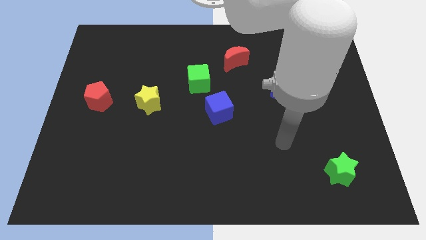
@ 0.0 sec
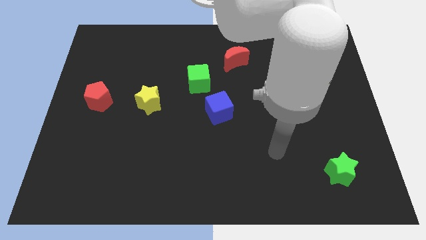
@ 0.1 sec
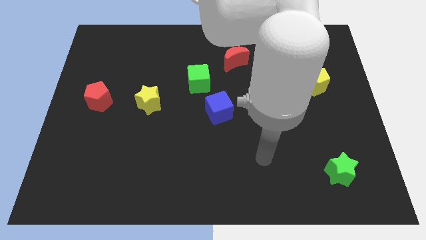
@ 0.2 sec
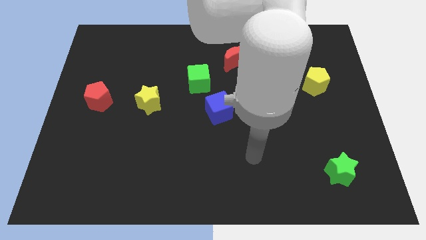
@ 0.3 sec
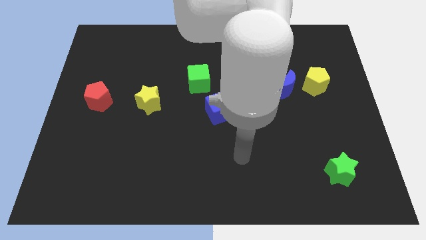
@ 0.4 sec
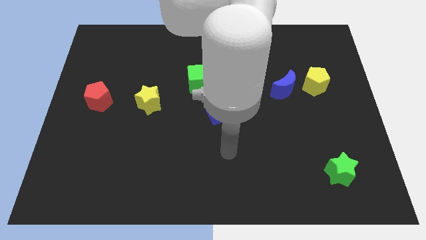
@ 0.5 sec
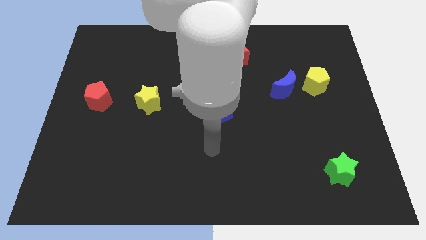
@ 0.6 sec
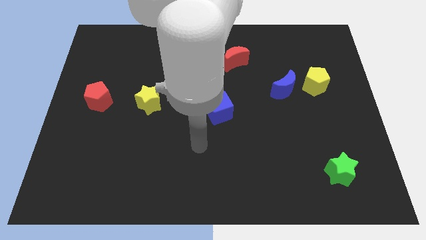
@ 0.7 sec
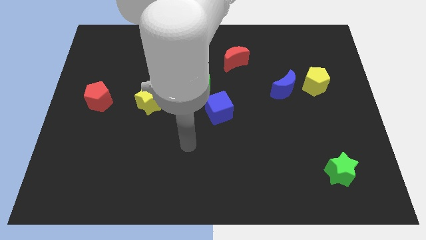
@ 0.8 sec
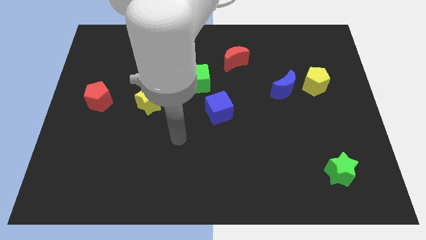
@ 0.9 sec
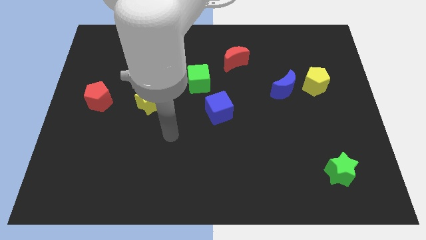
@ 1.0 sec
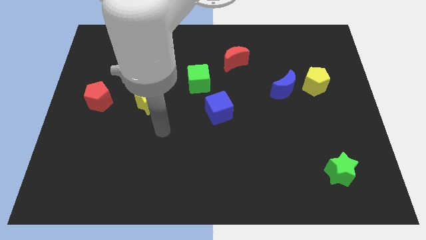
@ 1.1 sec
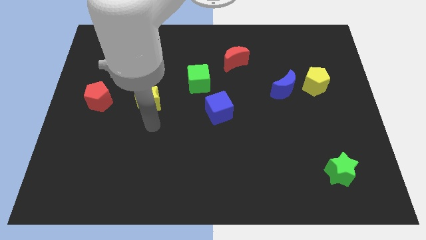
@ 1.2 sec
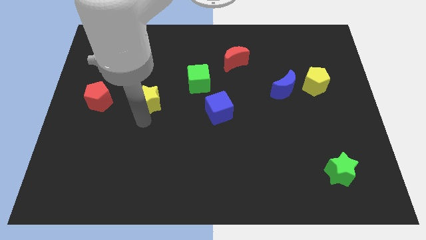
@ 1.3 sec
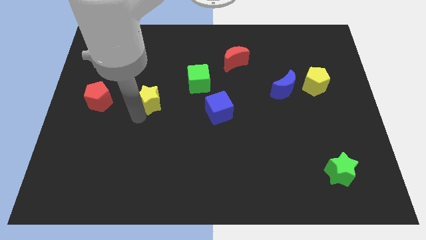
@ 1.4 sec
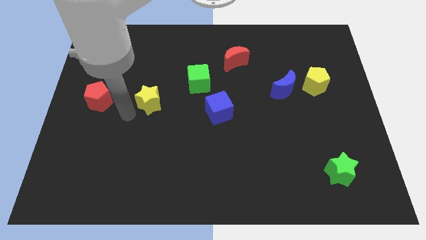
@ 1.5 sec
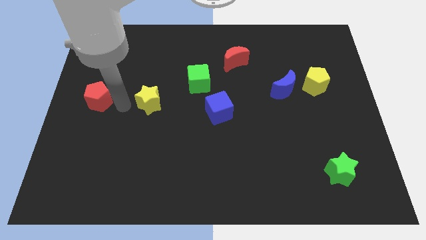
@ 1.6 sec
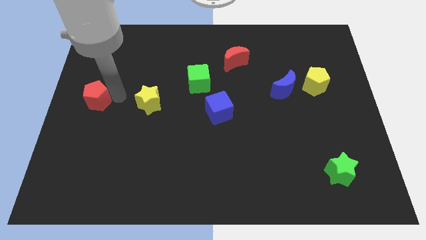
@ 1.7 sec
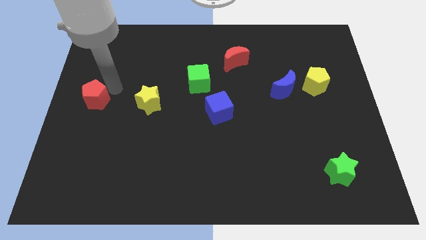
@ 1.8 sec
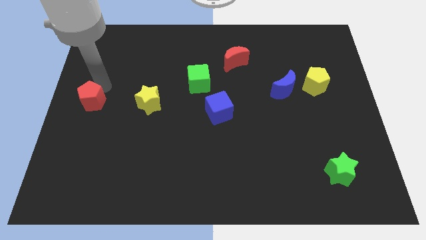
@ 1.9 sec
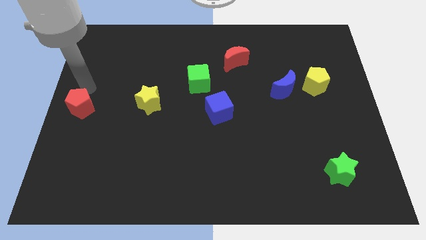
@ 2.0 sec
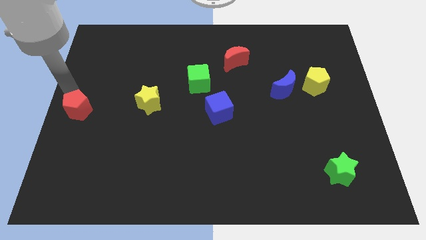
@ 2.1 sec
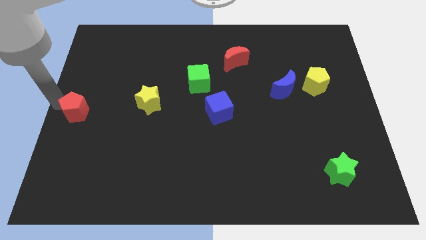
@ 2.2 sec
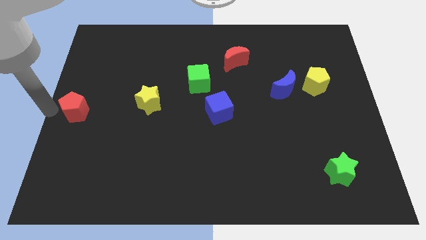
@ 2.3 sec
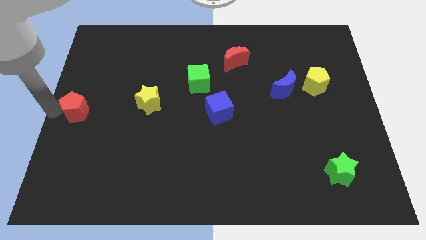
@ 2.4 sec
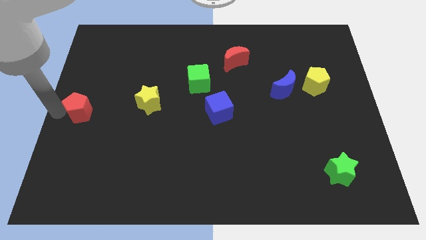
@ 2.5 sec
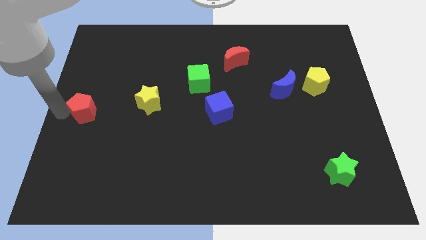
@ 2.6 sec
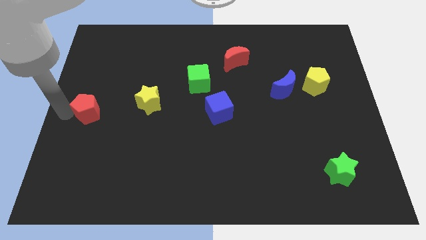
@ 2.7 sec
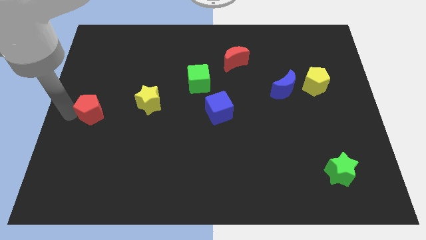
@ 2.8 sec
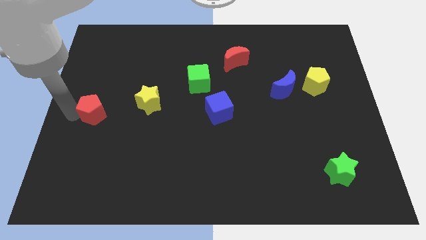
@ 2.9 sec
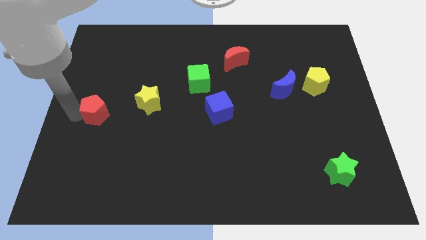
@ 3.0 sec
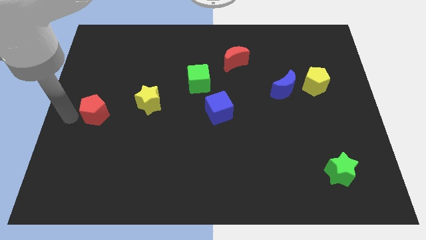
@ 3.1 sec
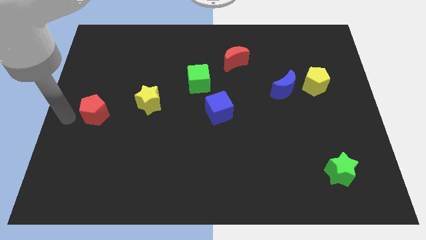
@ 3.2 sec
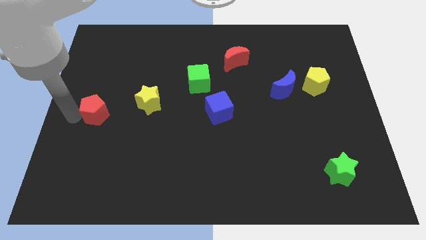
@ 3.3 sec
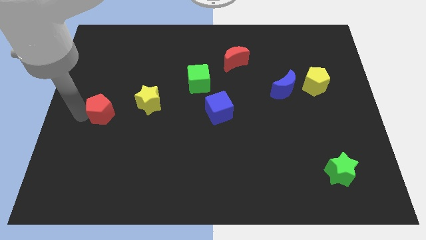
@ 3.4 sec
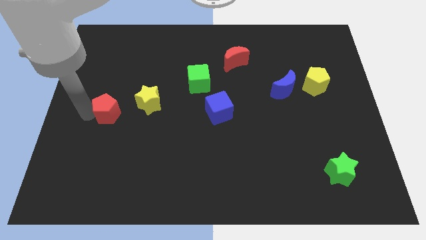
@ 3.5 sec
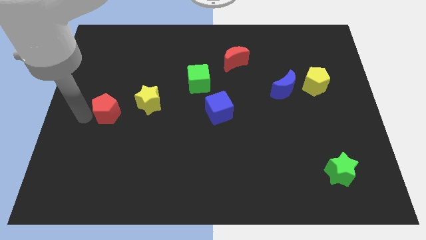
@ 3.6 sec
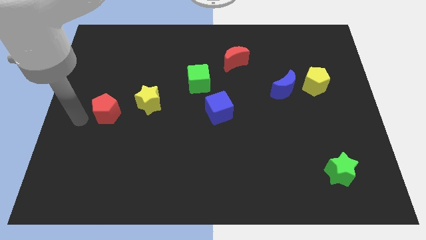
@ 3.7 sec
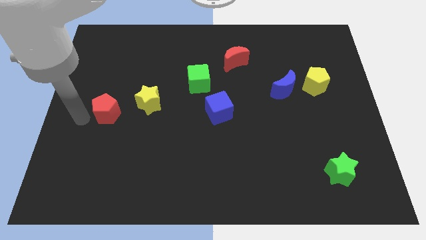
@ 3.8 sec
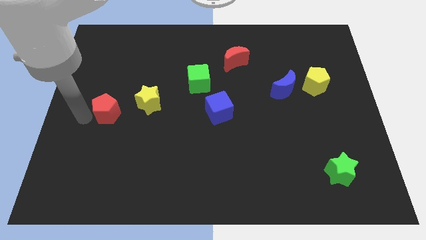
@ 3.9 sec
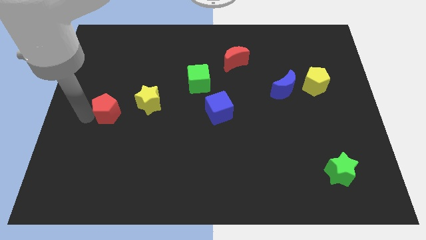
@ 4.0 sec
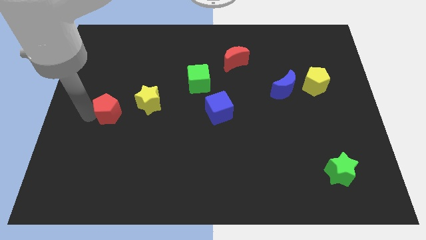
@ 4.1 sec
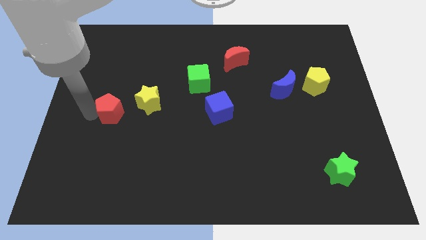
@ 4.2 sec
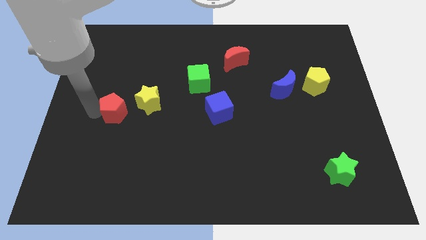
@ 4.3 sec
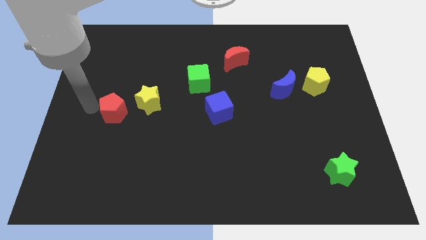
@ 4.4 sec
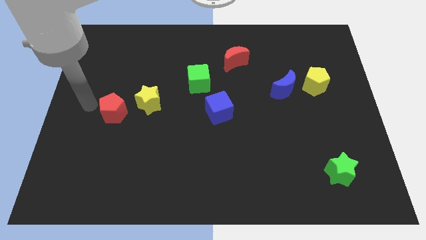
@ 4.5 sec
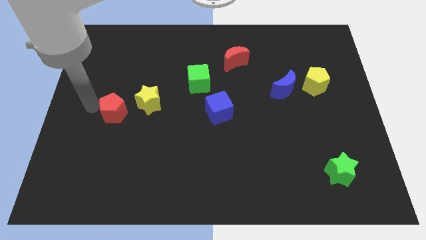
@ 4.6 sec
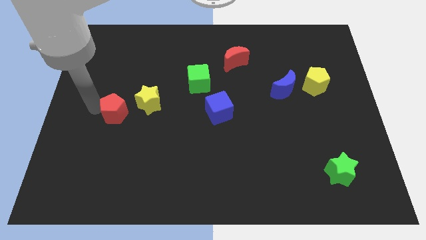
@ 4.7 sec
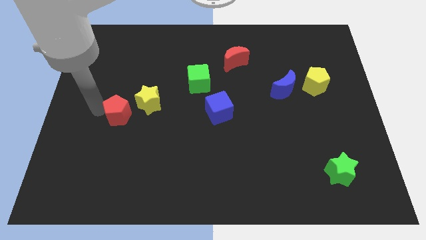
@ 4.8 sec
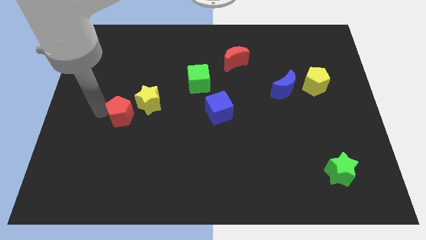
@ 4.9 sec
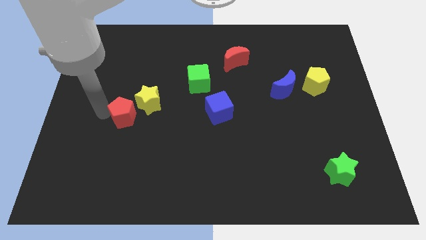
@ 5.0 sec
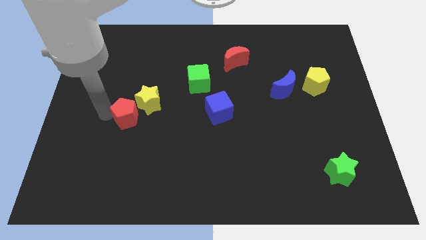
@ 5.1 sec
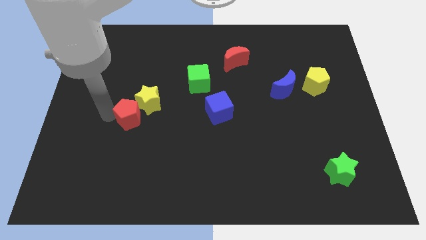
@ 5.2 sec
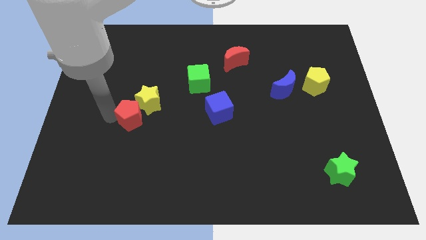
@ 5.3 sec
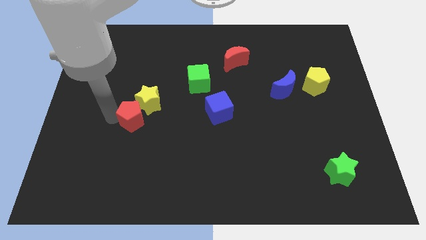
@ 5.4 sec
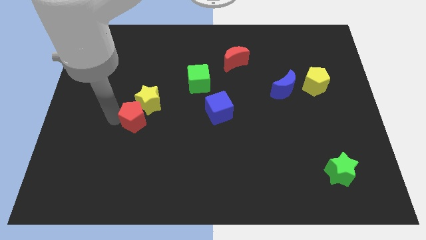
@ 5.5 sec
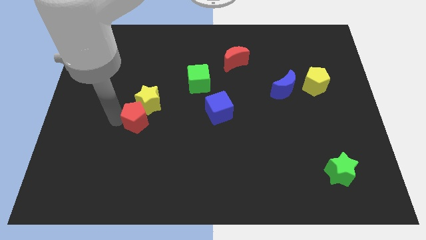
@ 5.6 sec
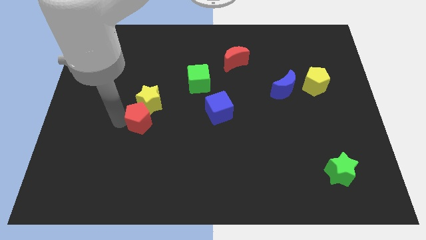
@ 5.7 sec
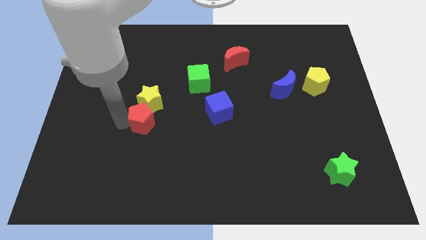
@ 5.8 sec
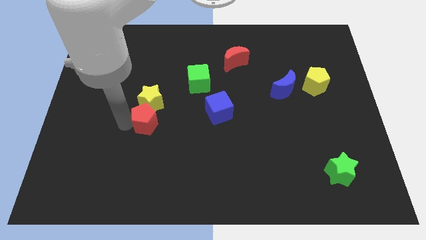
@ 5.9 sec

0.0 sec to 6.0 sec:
move the red pentagon to the bottom right side of the yellow star

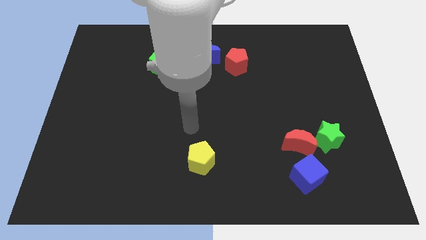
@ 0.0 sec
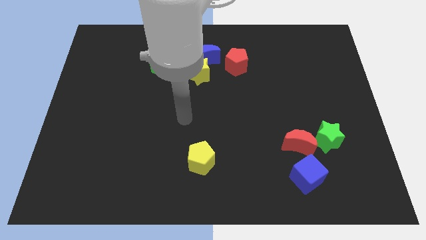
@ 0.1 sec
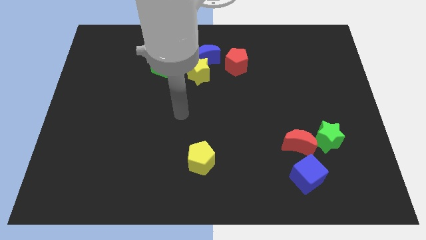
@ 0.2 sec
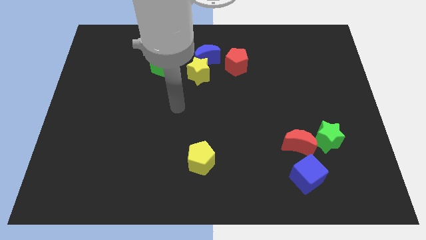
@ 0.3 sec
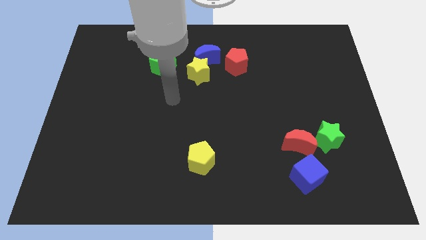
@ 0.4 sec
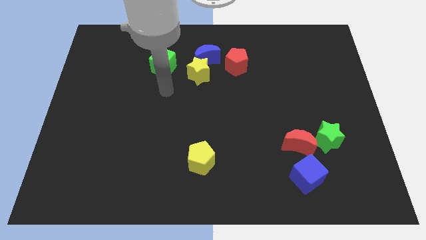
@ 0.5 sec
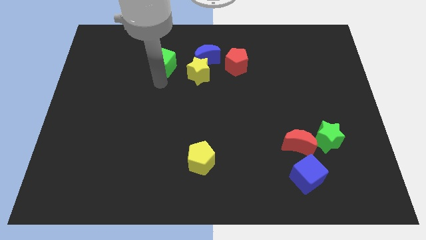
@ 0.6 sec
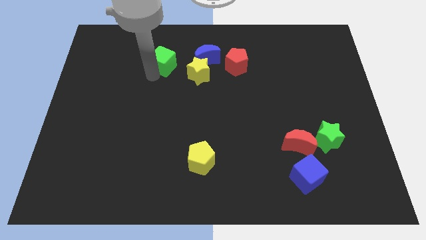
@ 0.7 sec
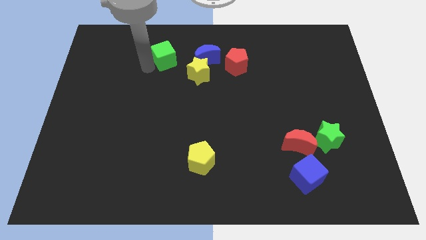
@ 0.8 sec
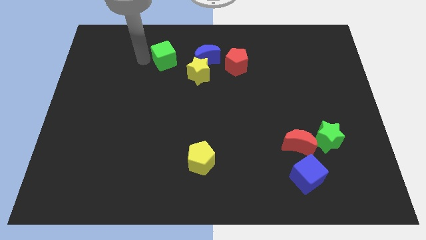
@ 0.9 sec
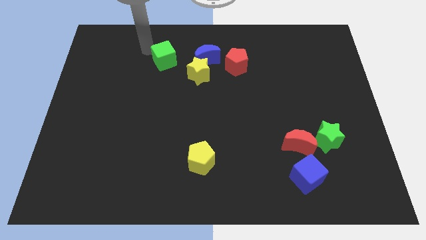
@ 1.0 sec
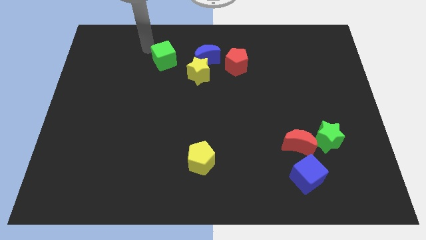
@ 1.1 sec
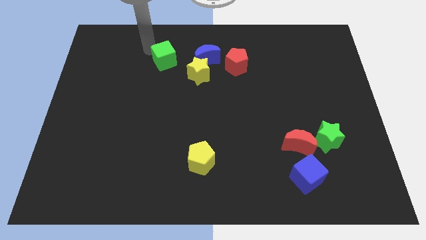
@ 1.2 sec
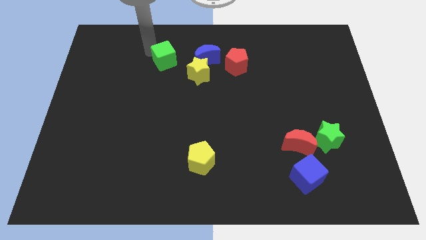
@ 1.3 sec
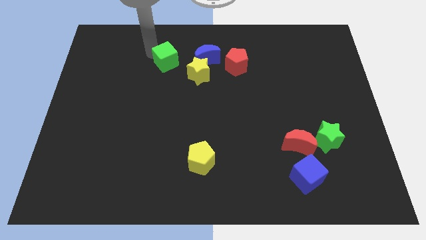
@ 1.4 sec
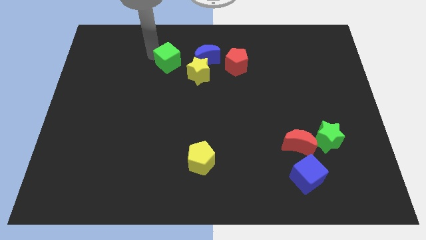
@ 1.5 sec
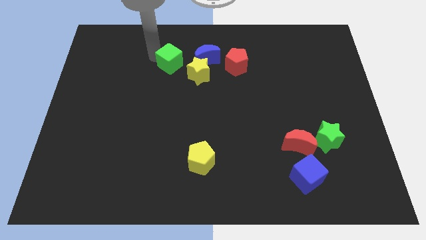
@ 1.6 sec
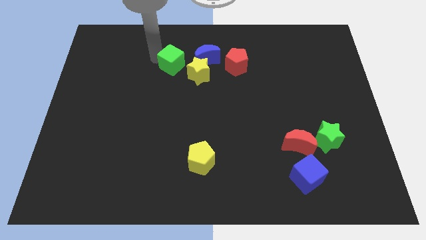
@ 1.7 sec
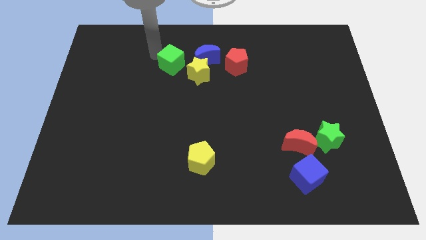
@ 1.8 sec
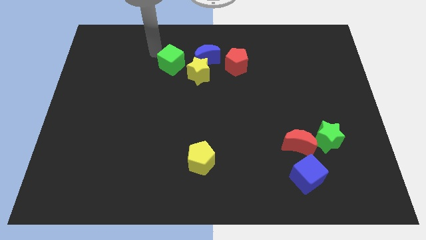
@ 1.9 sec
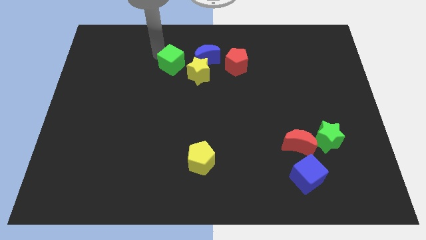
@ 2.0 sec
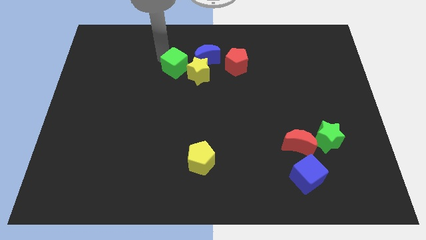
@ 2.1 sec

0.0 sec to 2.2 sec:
move the green cube to the bottom left side of the blue moon
